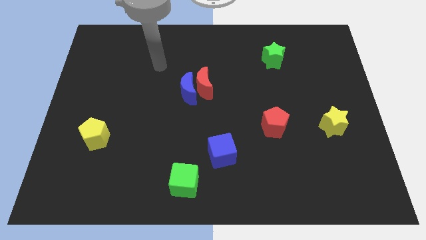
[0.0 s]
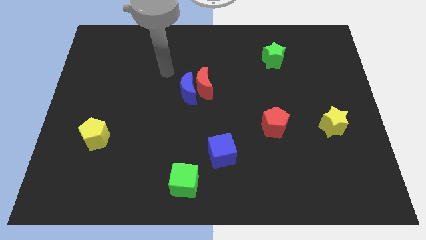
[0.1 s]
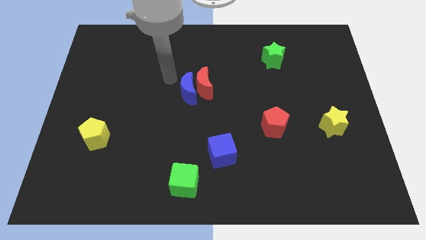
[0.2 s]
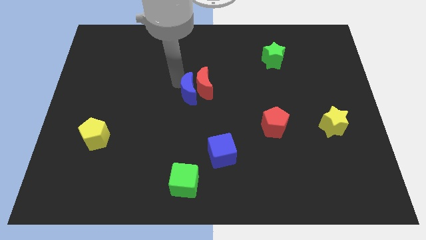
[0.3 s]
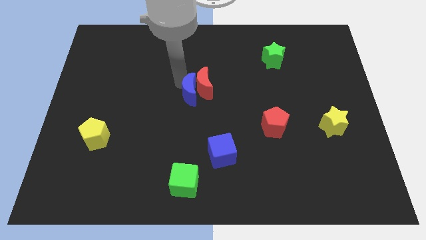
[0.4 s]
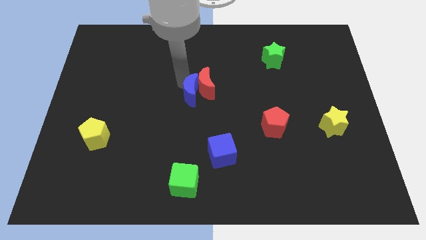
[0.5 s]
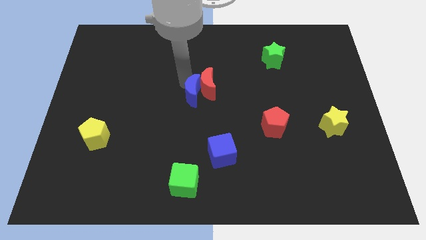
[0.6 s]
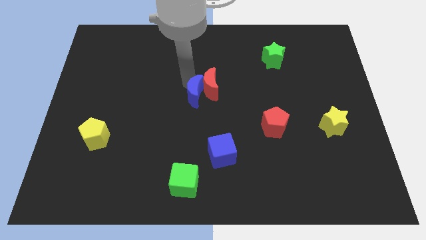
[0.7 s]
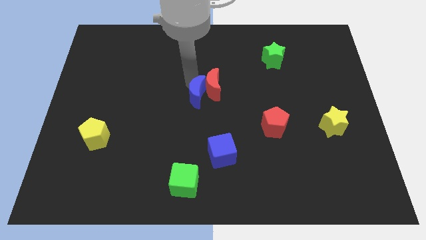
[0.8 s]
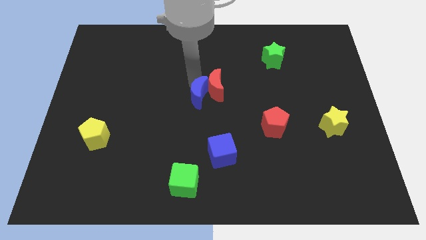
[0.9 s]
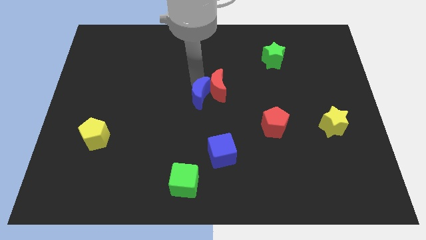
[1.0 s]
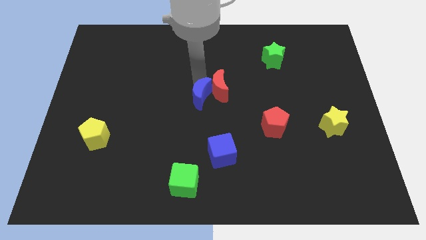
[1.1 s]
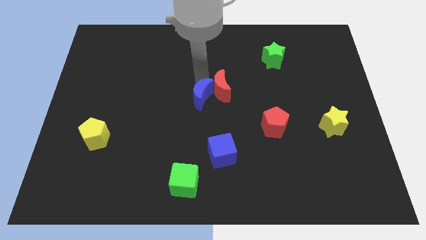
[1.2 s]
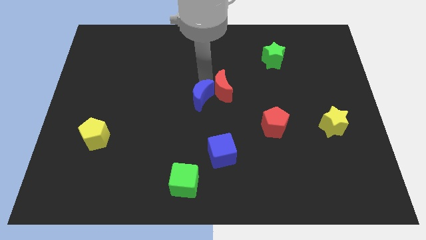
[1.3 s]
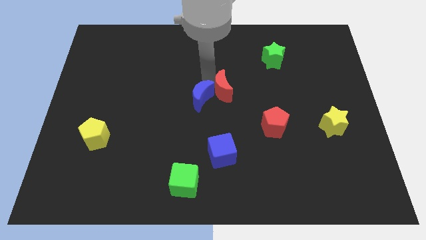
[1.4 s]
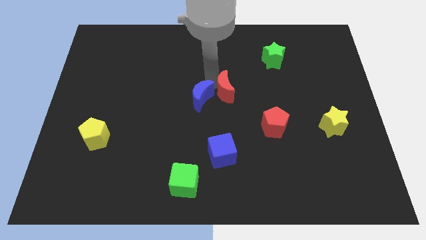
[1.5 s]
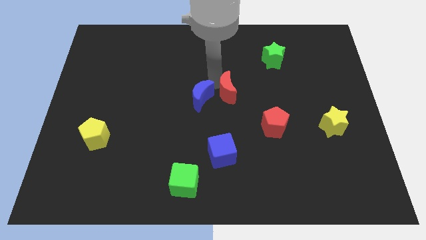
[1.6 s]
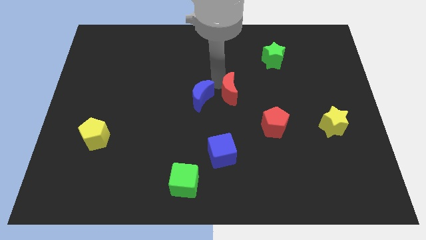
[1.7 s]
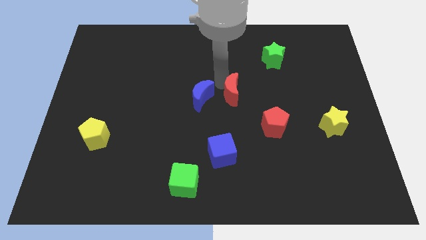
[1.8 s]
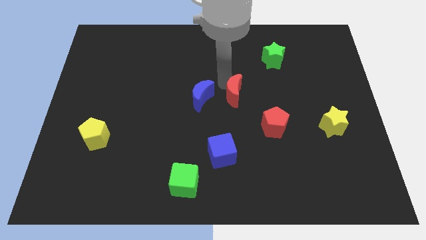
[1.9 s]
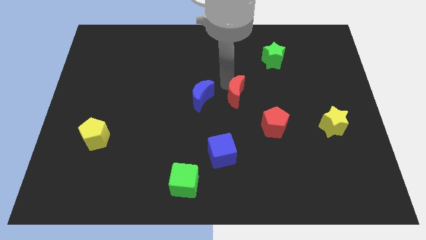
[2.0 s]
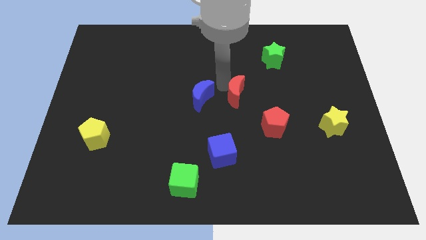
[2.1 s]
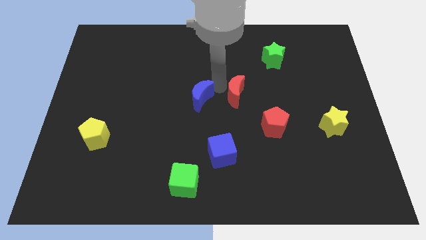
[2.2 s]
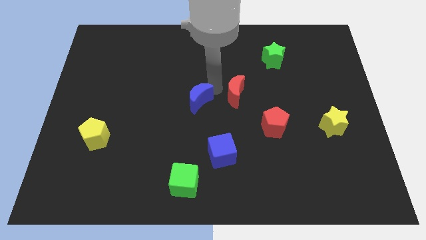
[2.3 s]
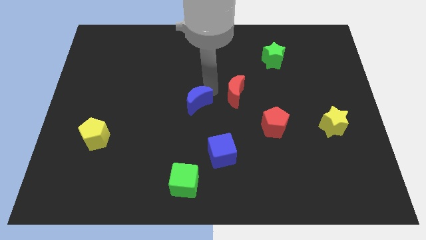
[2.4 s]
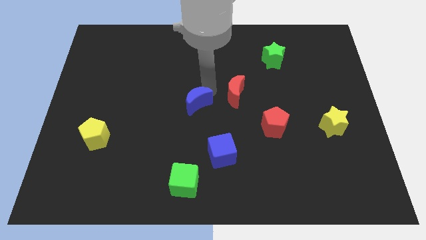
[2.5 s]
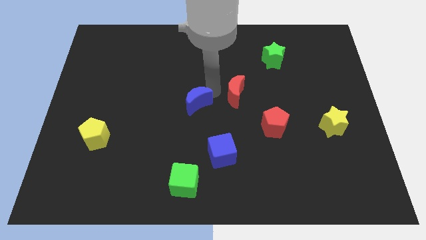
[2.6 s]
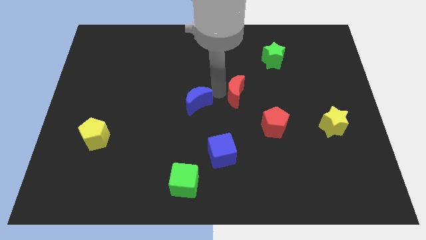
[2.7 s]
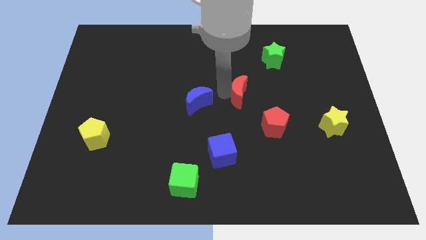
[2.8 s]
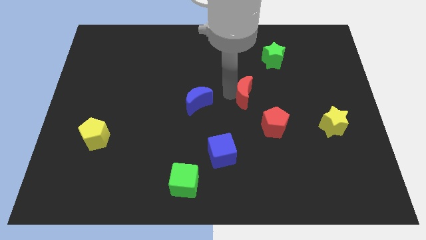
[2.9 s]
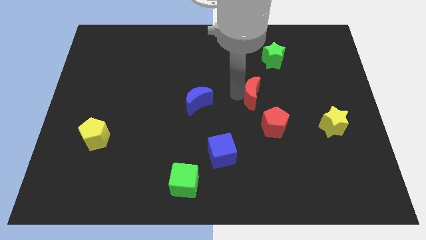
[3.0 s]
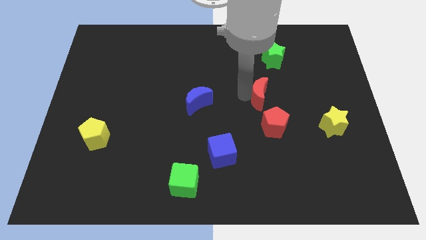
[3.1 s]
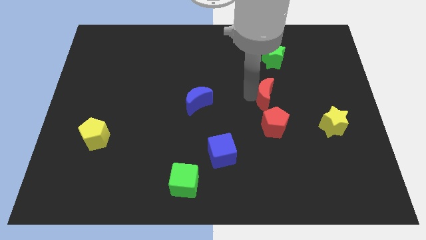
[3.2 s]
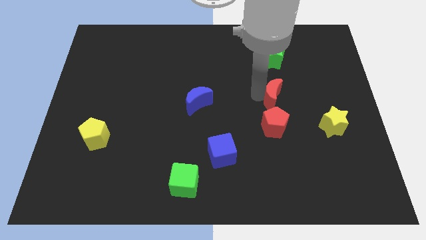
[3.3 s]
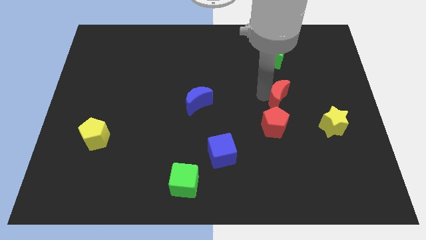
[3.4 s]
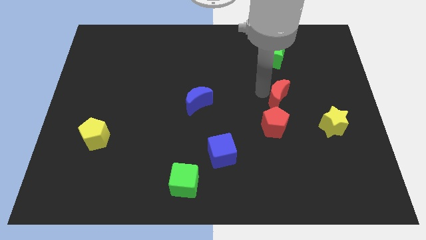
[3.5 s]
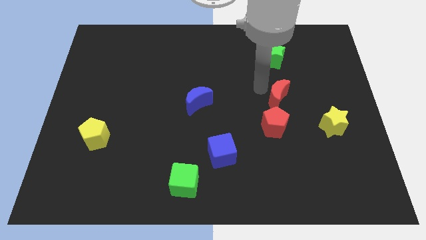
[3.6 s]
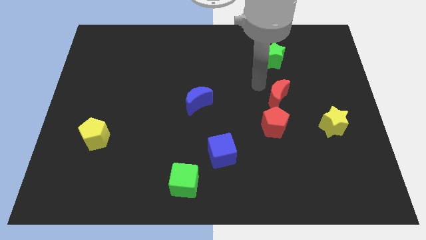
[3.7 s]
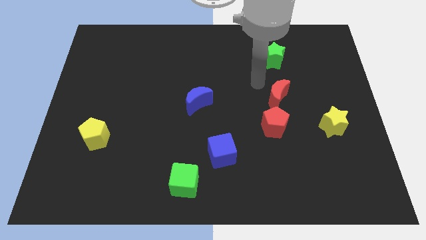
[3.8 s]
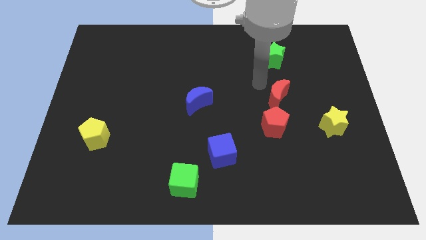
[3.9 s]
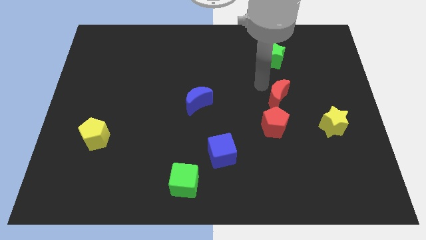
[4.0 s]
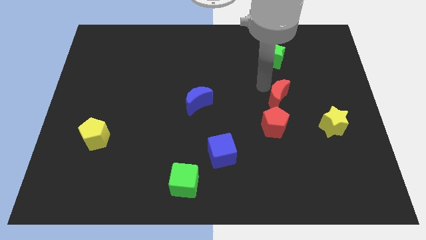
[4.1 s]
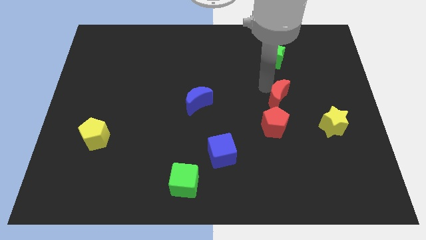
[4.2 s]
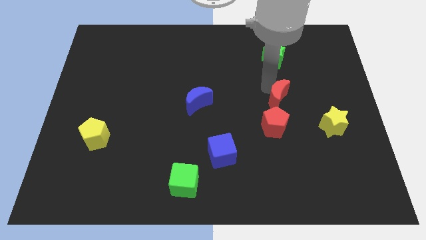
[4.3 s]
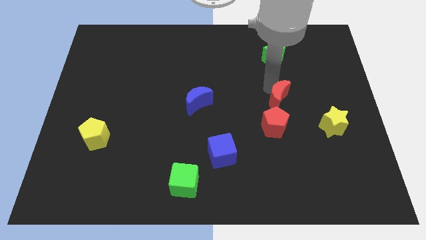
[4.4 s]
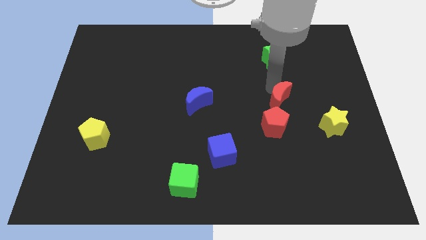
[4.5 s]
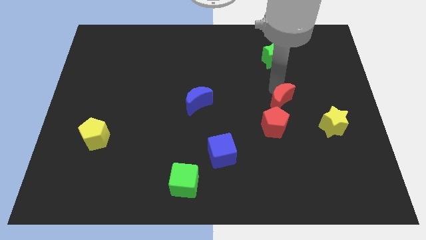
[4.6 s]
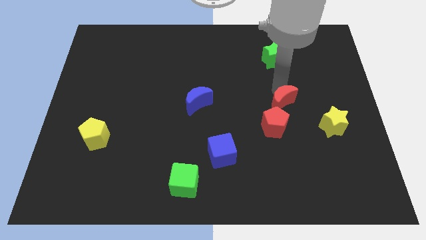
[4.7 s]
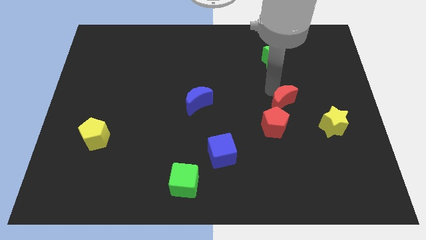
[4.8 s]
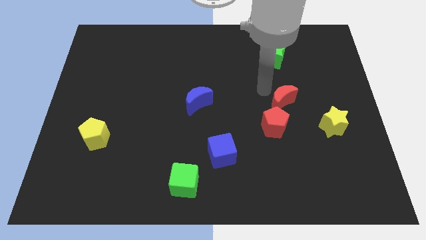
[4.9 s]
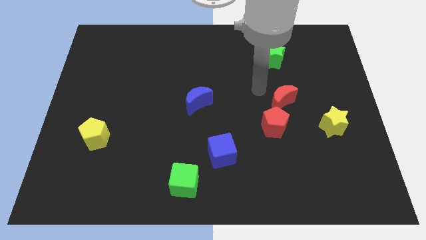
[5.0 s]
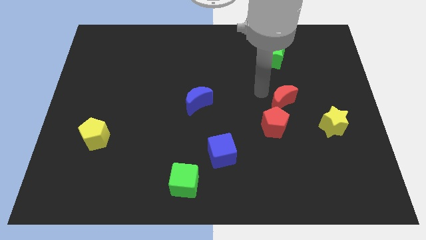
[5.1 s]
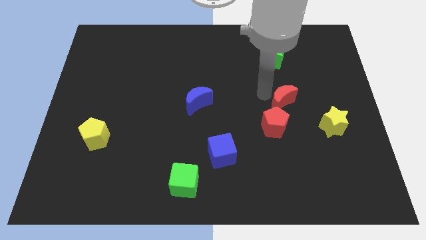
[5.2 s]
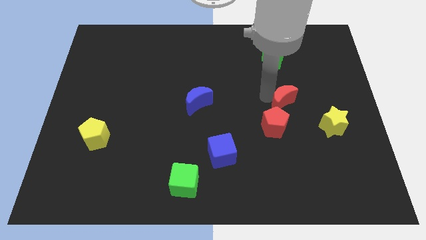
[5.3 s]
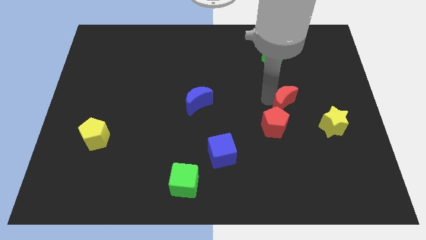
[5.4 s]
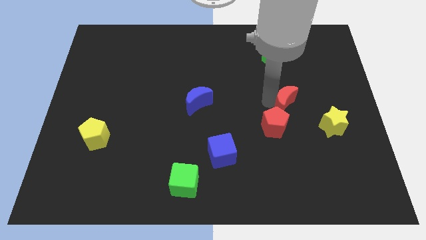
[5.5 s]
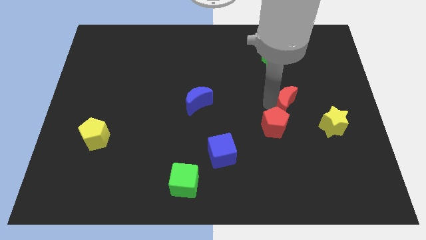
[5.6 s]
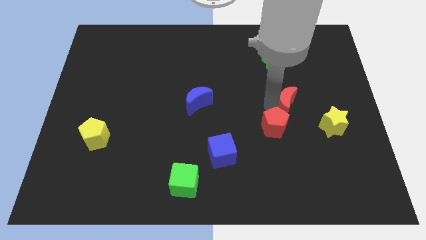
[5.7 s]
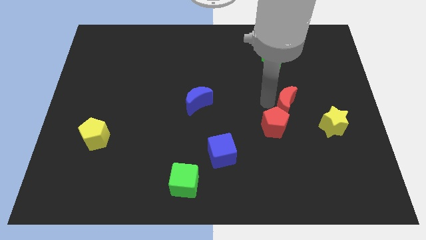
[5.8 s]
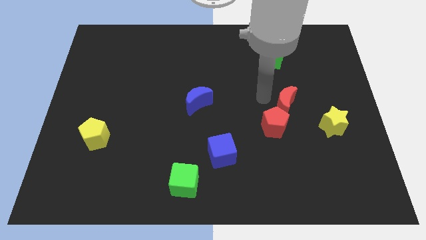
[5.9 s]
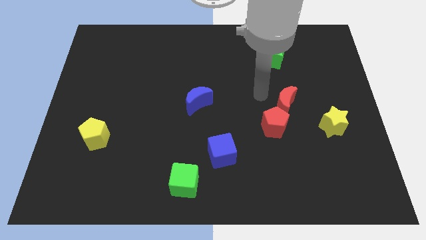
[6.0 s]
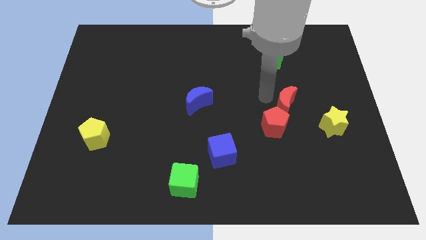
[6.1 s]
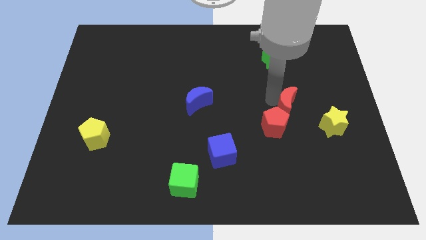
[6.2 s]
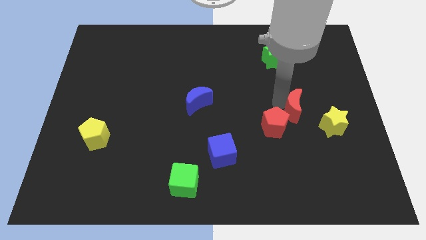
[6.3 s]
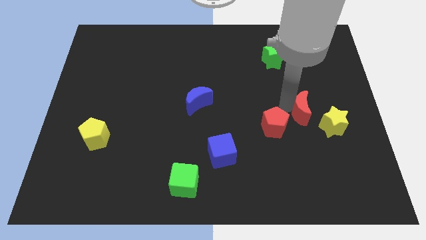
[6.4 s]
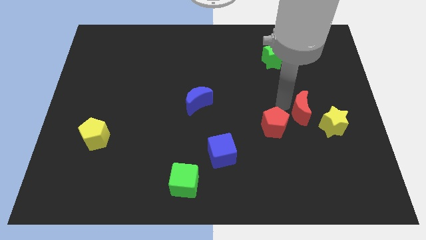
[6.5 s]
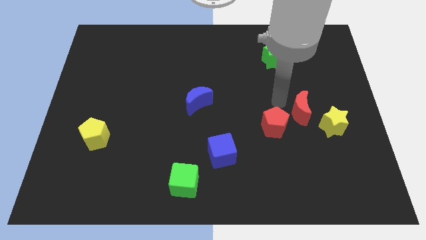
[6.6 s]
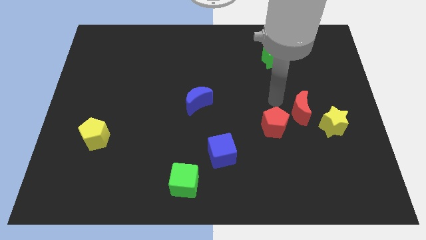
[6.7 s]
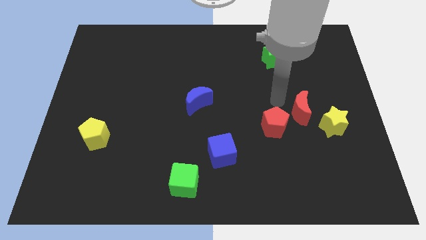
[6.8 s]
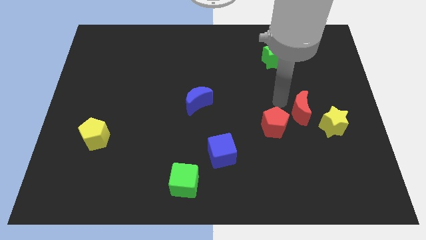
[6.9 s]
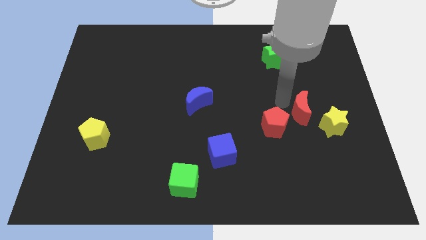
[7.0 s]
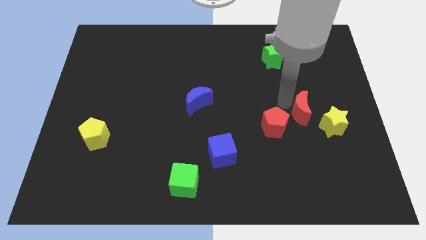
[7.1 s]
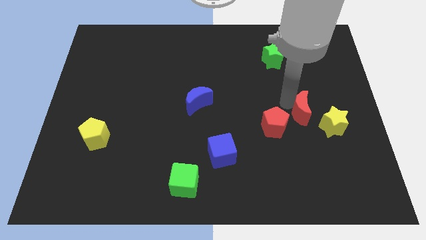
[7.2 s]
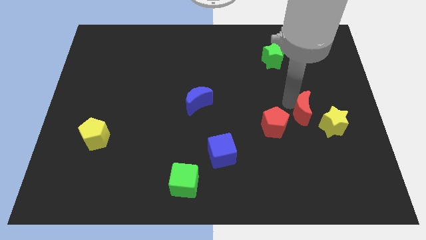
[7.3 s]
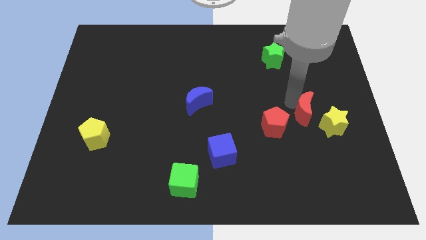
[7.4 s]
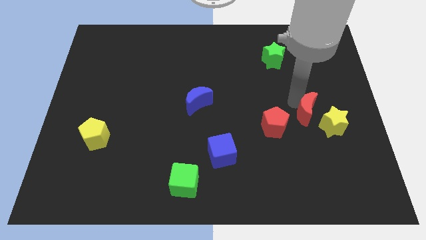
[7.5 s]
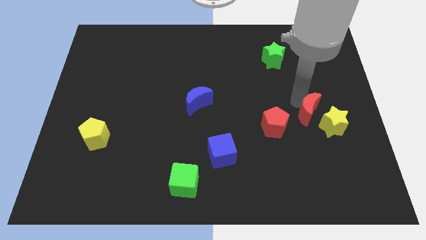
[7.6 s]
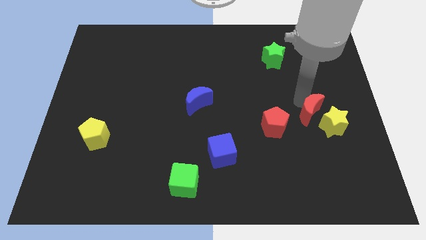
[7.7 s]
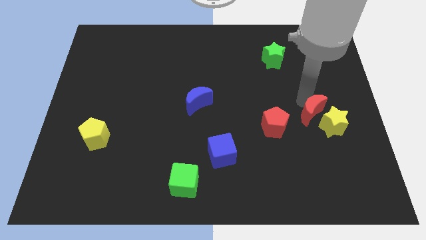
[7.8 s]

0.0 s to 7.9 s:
move the red moon next to the yellow star
